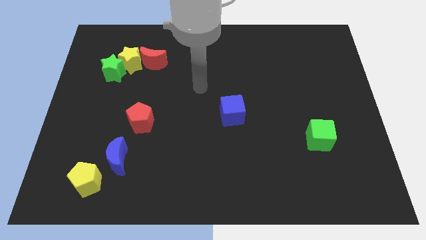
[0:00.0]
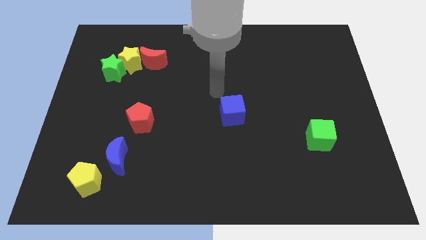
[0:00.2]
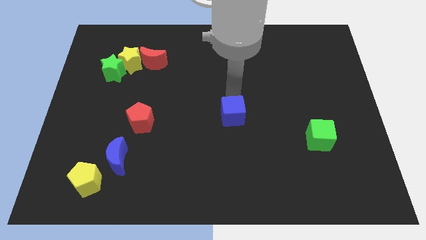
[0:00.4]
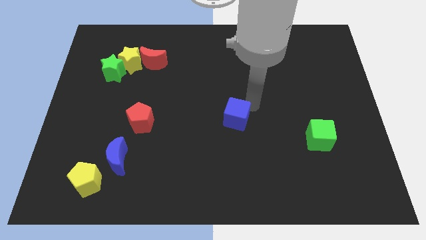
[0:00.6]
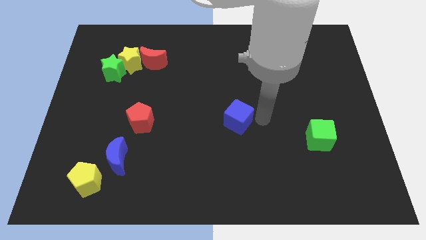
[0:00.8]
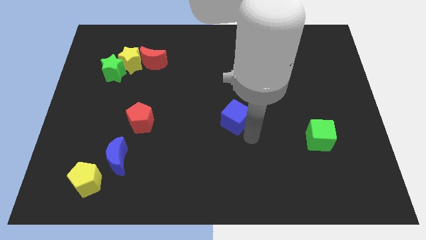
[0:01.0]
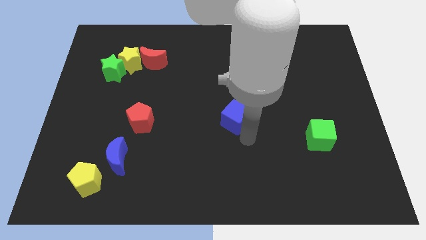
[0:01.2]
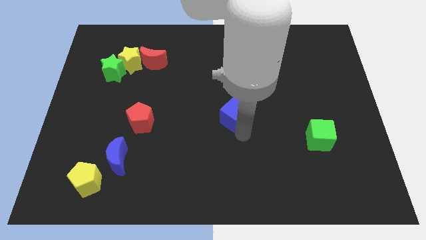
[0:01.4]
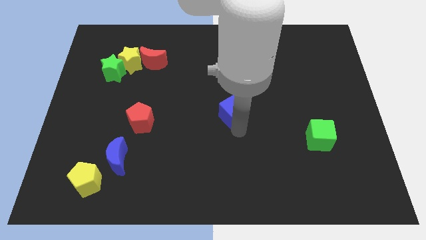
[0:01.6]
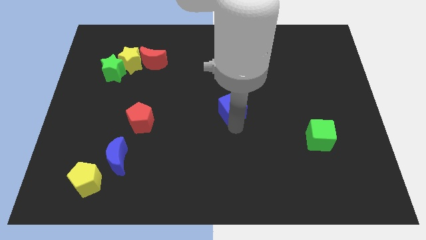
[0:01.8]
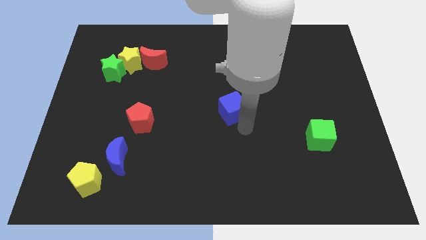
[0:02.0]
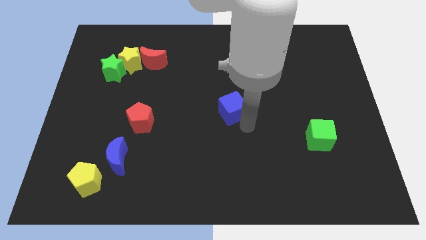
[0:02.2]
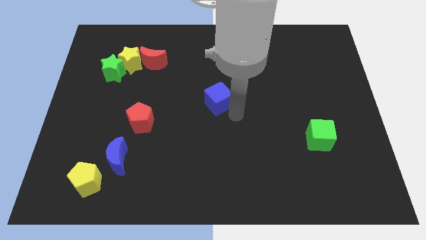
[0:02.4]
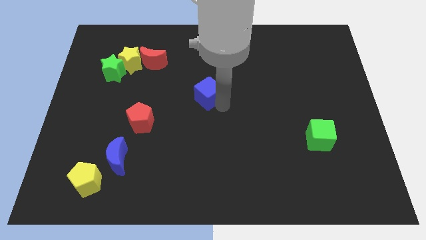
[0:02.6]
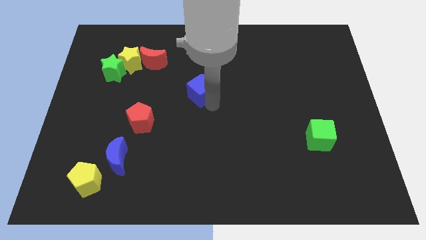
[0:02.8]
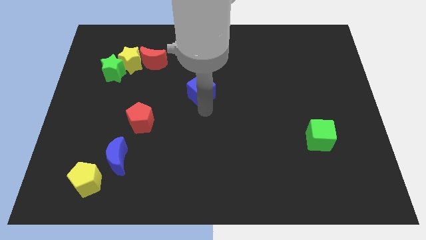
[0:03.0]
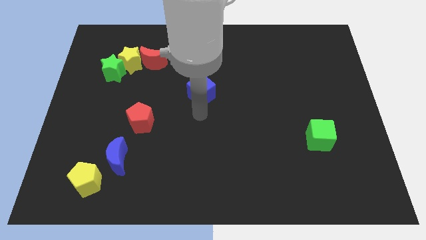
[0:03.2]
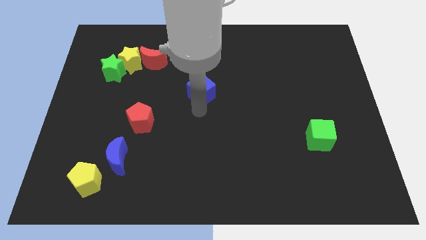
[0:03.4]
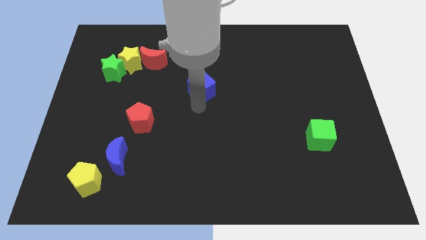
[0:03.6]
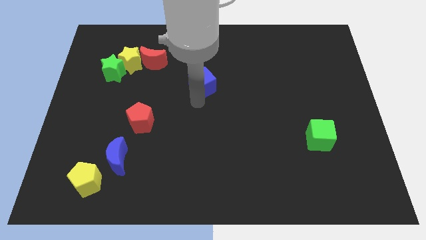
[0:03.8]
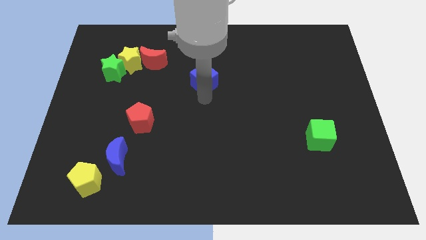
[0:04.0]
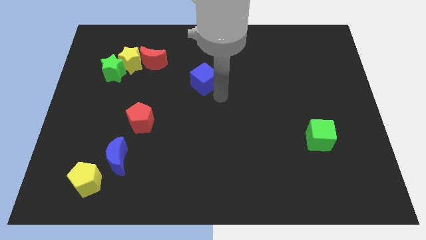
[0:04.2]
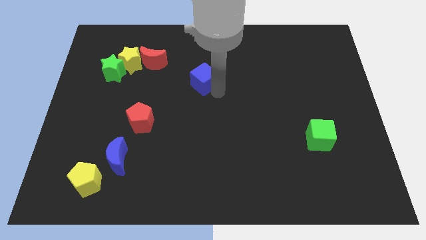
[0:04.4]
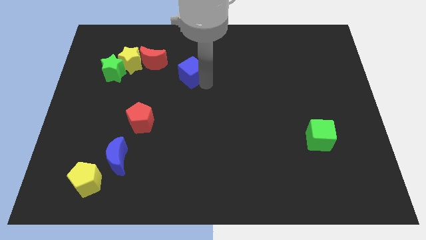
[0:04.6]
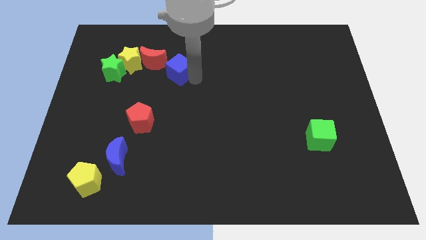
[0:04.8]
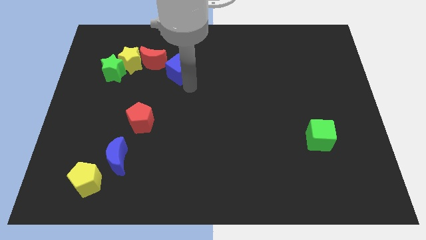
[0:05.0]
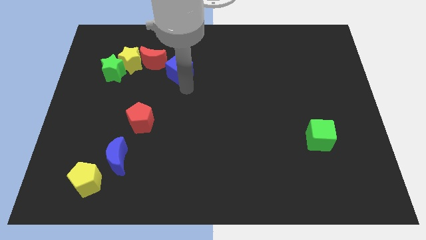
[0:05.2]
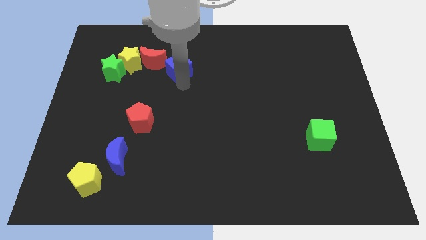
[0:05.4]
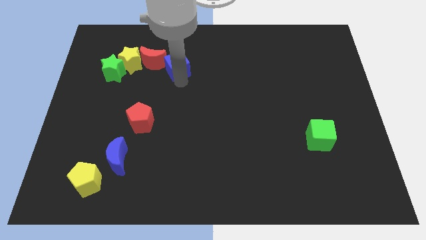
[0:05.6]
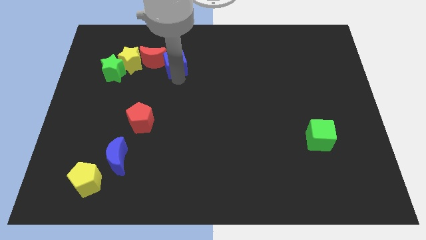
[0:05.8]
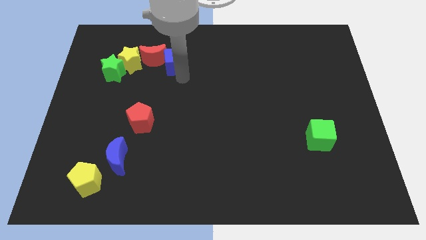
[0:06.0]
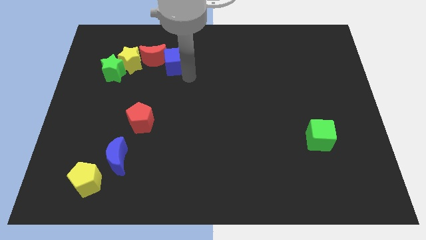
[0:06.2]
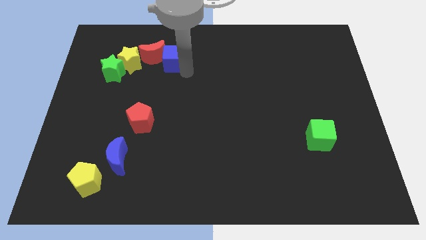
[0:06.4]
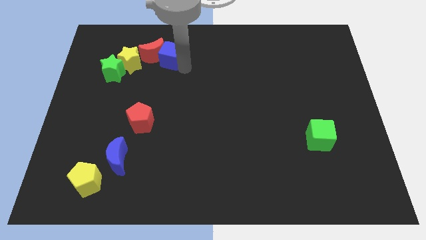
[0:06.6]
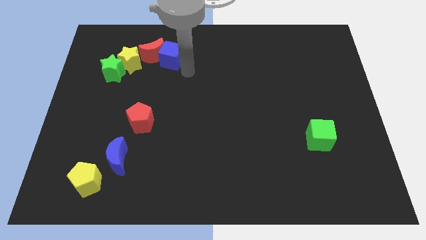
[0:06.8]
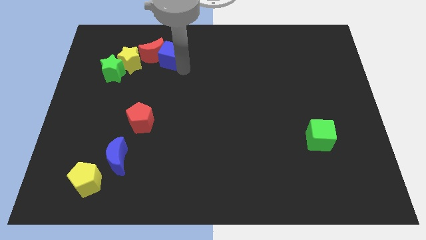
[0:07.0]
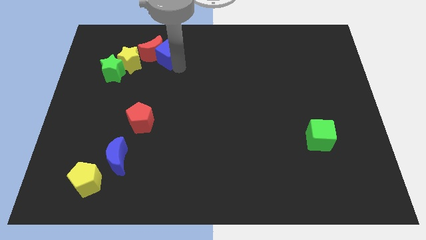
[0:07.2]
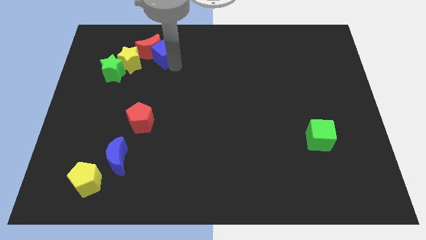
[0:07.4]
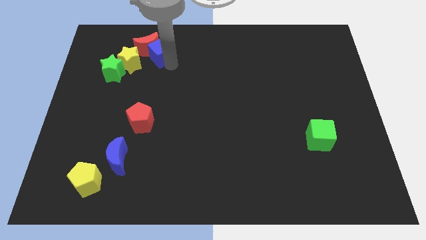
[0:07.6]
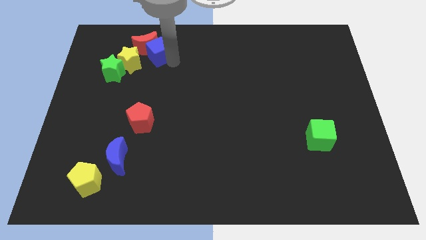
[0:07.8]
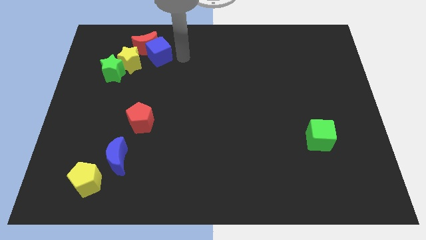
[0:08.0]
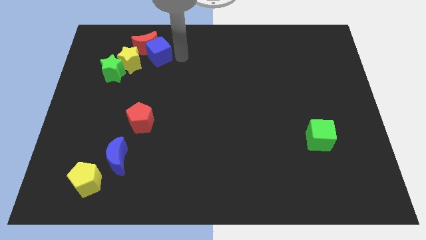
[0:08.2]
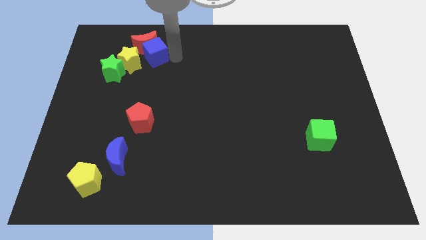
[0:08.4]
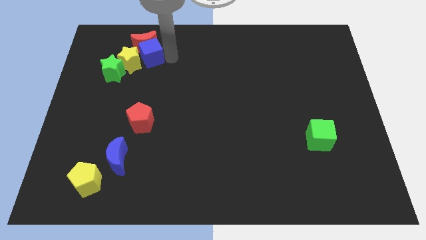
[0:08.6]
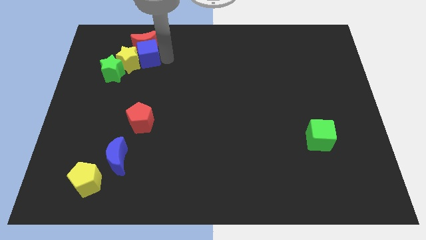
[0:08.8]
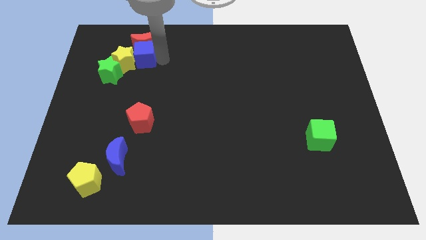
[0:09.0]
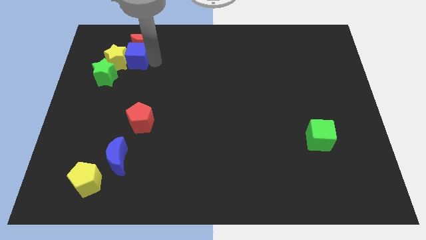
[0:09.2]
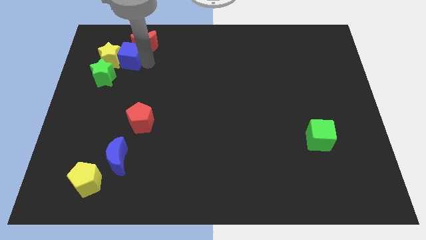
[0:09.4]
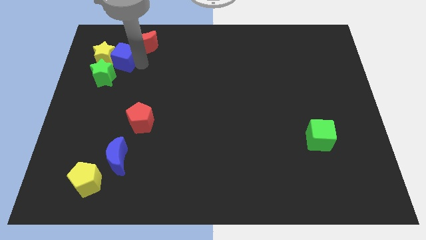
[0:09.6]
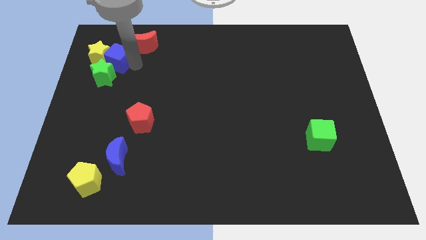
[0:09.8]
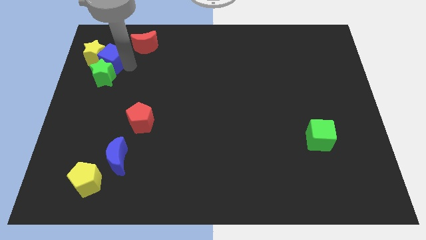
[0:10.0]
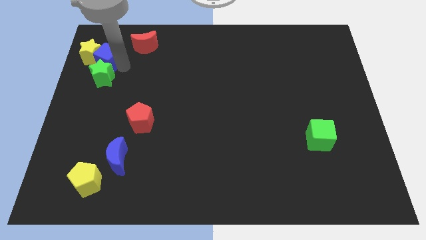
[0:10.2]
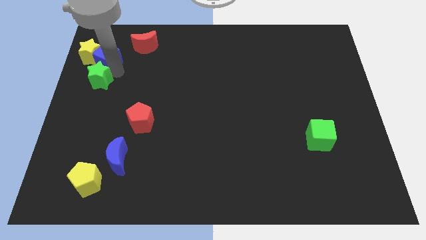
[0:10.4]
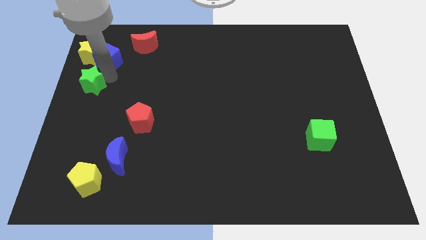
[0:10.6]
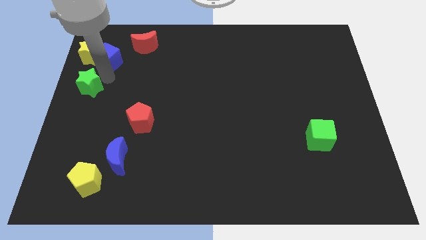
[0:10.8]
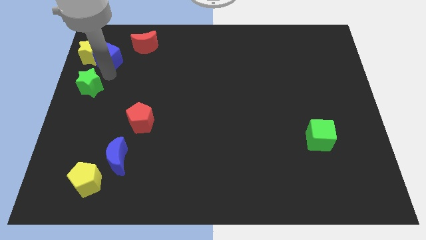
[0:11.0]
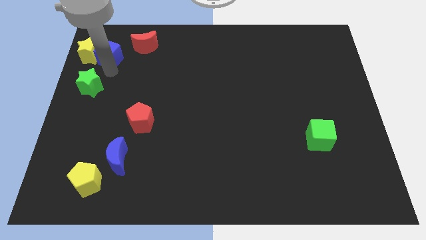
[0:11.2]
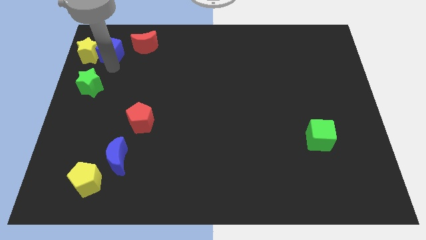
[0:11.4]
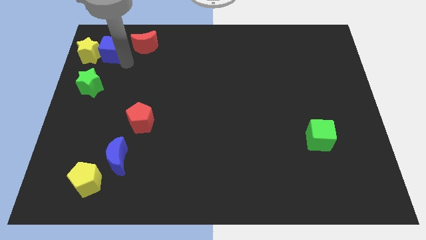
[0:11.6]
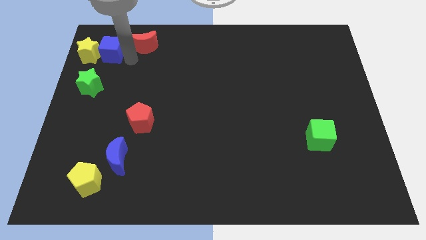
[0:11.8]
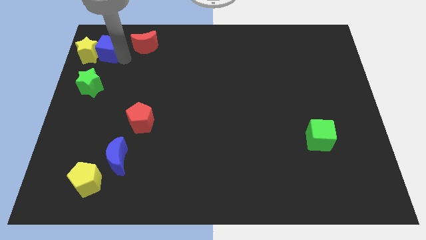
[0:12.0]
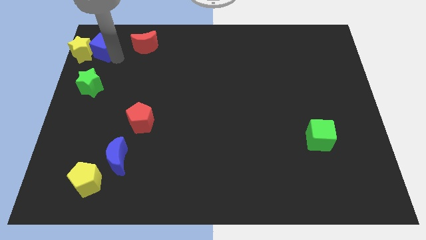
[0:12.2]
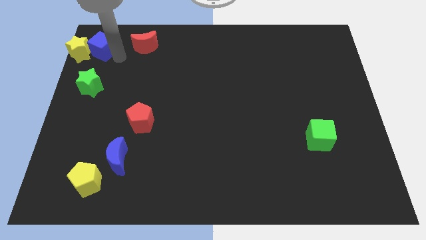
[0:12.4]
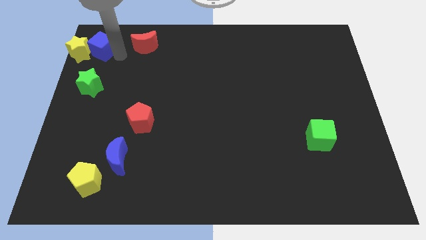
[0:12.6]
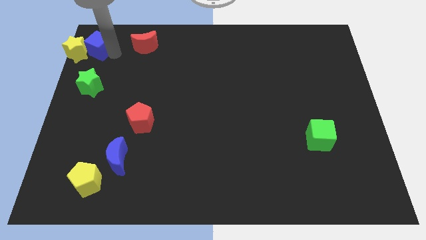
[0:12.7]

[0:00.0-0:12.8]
put the blue cube to the top left
